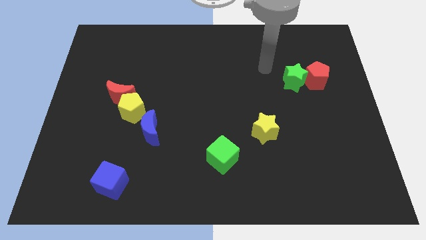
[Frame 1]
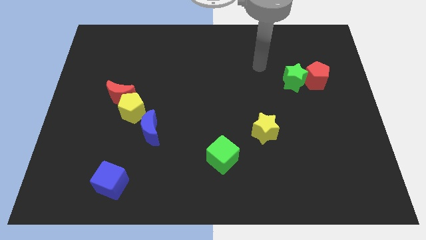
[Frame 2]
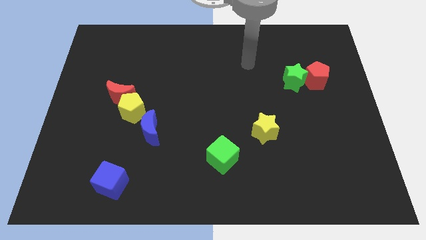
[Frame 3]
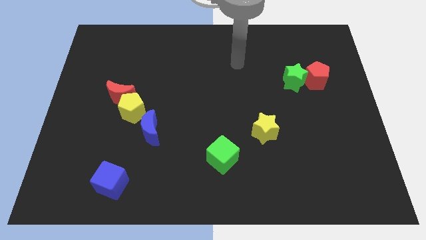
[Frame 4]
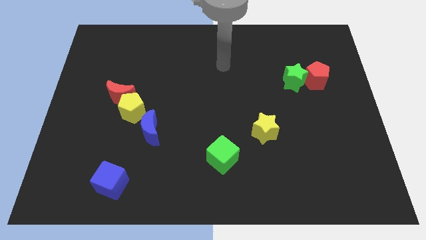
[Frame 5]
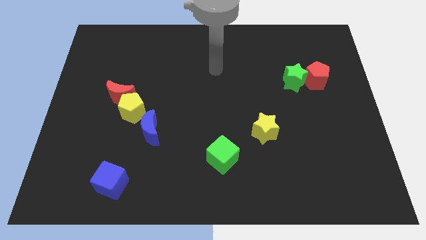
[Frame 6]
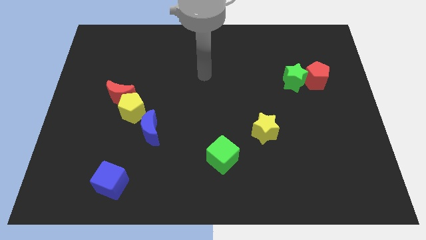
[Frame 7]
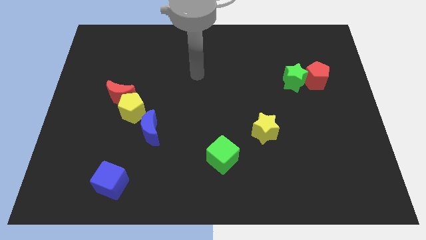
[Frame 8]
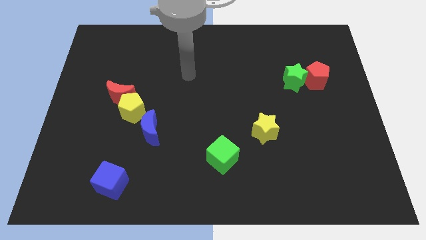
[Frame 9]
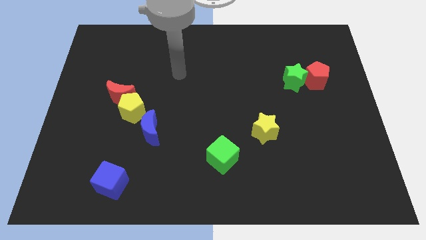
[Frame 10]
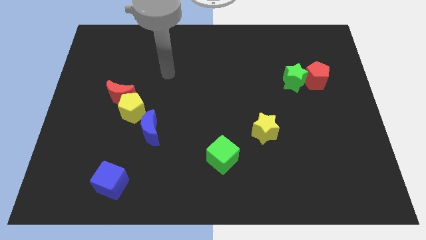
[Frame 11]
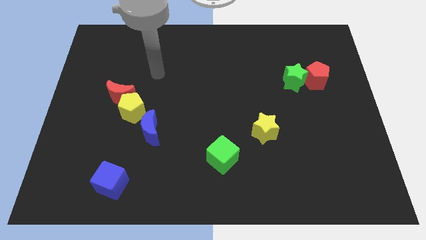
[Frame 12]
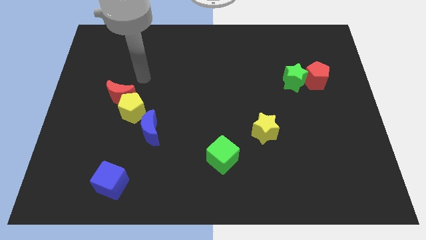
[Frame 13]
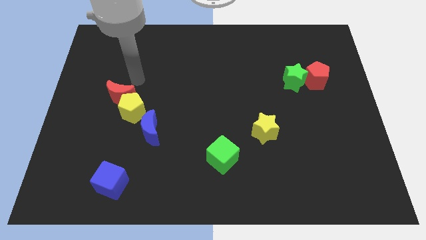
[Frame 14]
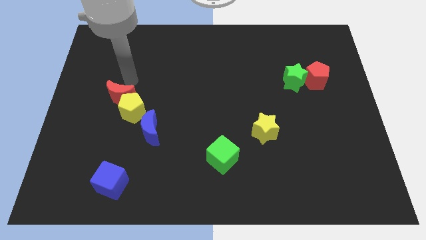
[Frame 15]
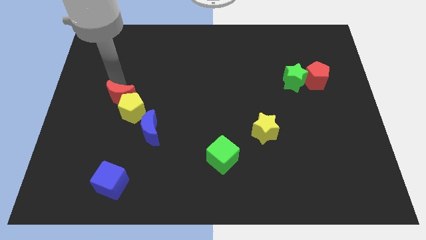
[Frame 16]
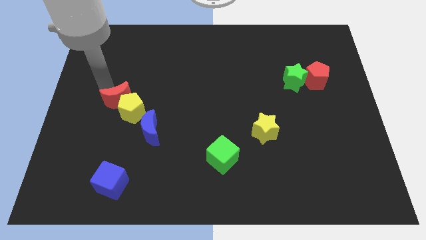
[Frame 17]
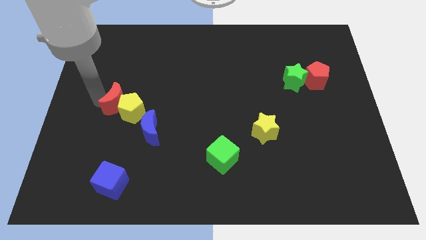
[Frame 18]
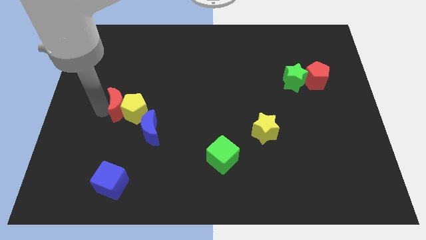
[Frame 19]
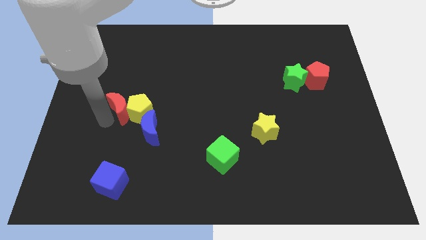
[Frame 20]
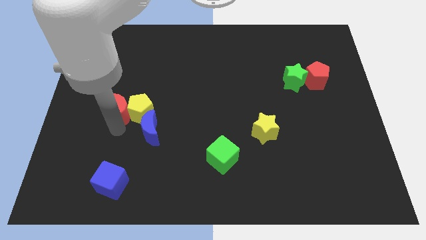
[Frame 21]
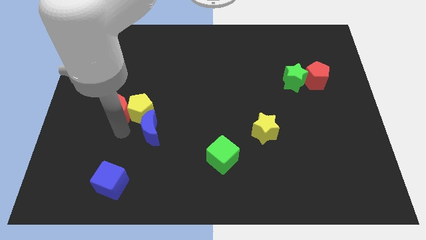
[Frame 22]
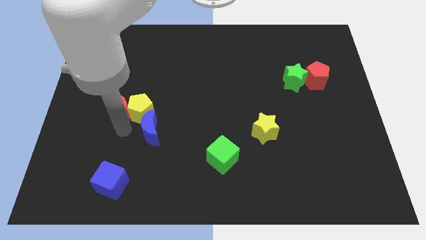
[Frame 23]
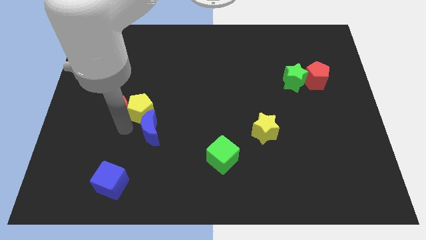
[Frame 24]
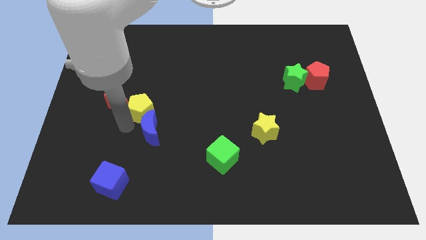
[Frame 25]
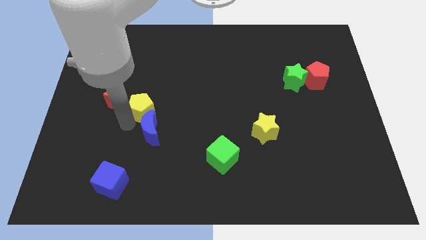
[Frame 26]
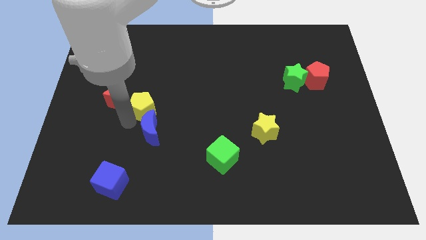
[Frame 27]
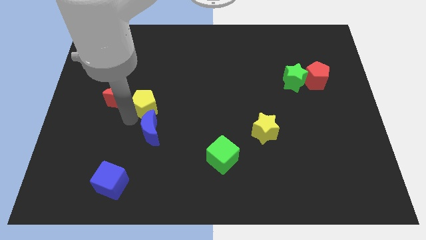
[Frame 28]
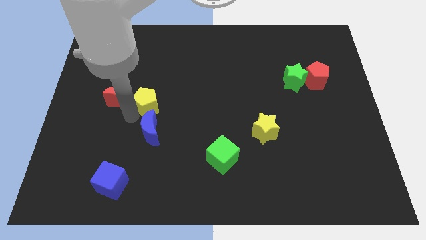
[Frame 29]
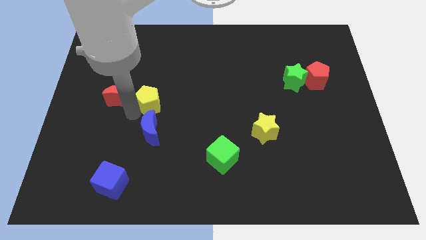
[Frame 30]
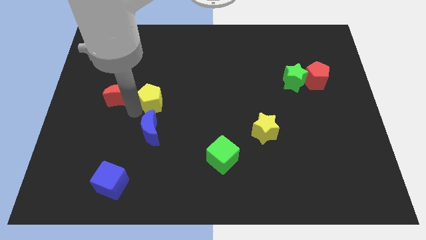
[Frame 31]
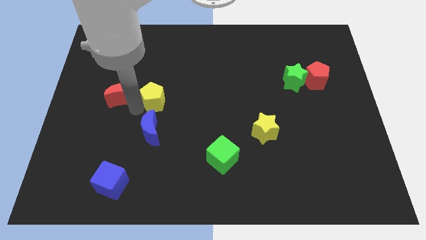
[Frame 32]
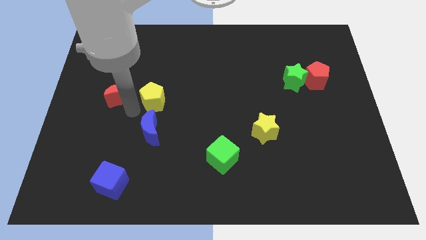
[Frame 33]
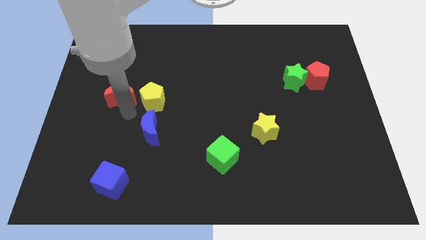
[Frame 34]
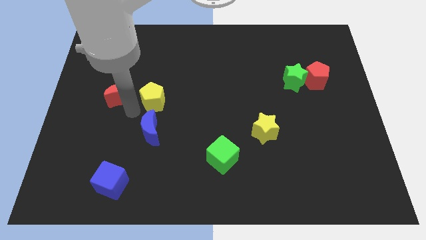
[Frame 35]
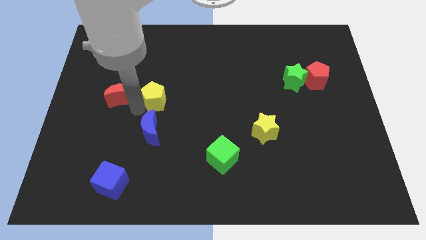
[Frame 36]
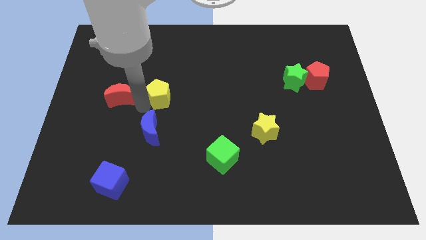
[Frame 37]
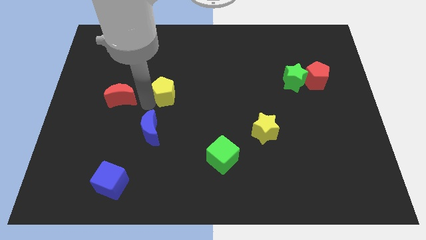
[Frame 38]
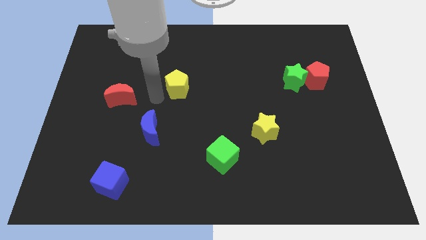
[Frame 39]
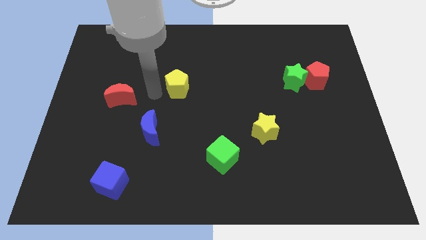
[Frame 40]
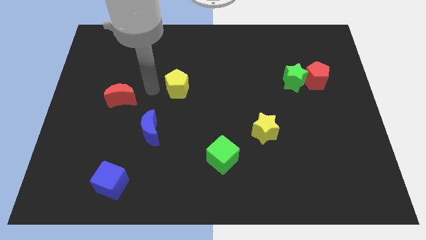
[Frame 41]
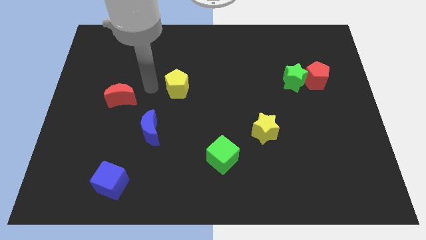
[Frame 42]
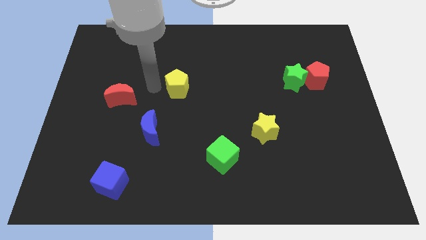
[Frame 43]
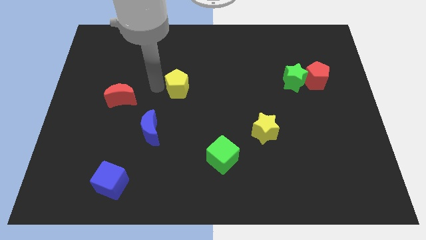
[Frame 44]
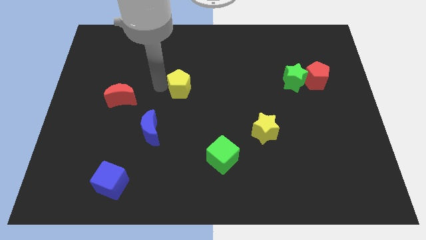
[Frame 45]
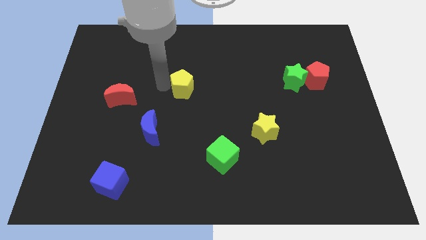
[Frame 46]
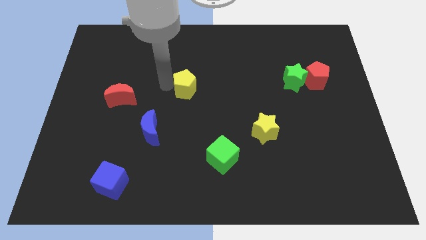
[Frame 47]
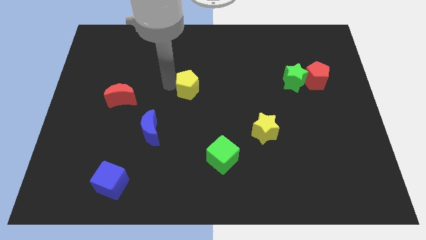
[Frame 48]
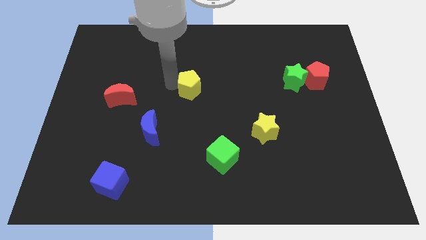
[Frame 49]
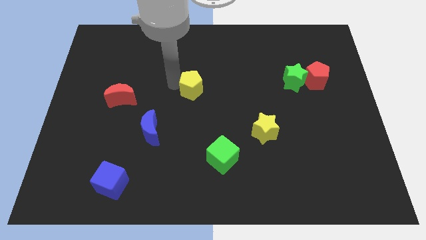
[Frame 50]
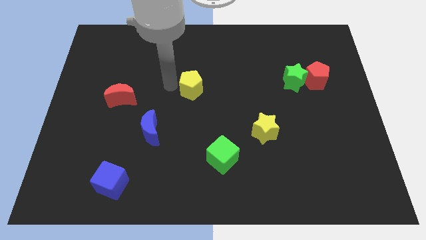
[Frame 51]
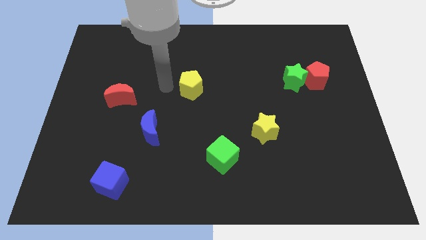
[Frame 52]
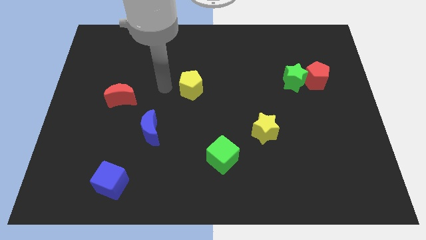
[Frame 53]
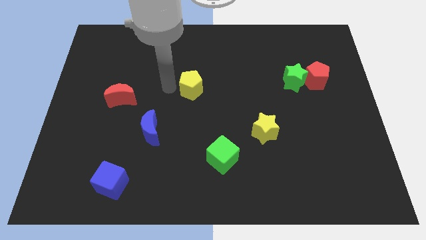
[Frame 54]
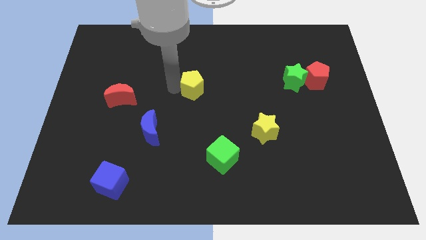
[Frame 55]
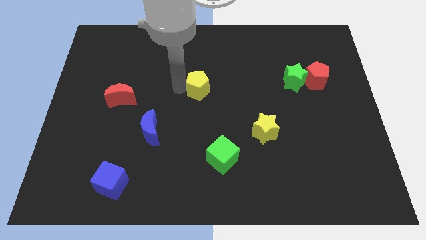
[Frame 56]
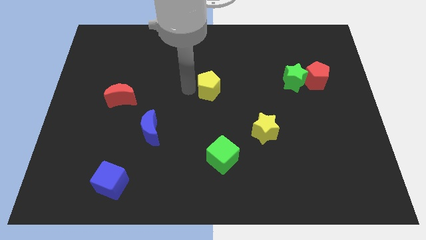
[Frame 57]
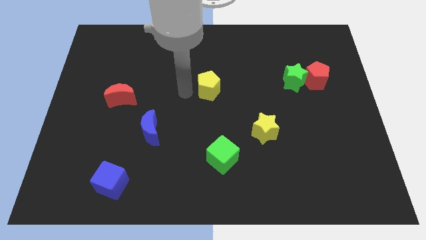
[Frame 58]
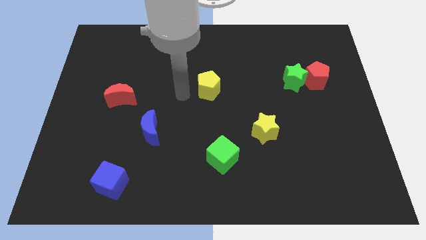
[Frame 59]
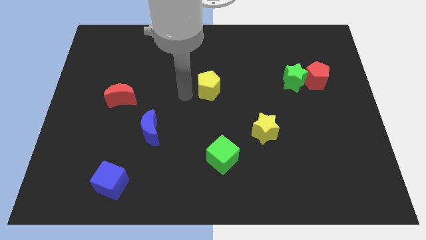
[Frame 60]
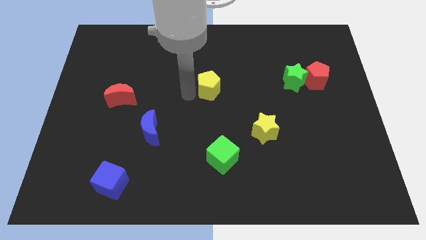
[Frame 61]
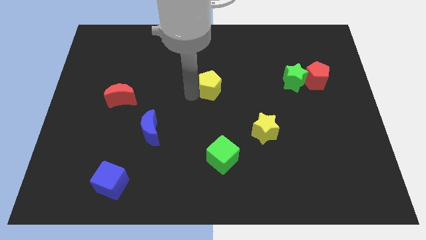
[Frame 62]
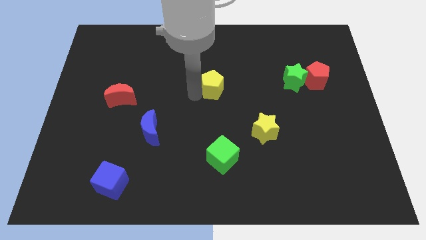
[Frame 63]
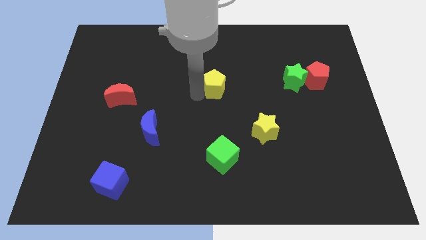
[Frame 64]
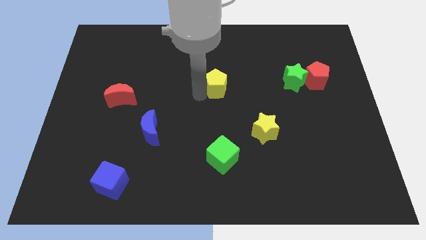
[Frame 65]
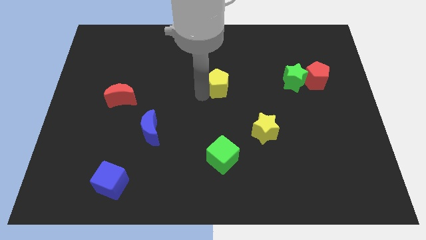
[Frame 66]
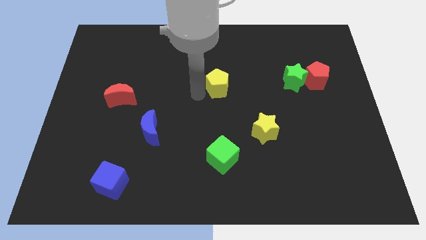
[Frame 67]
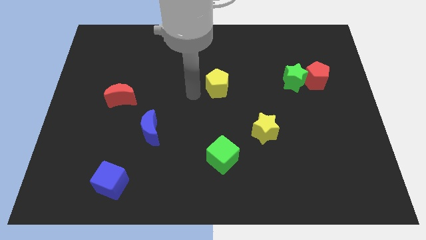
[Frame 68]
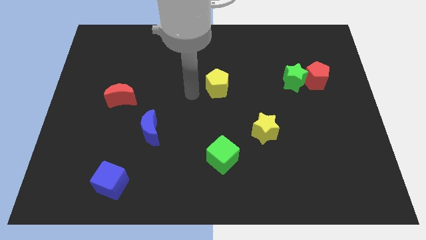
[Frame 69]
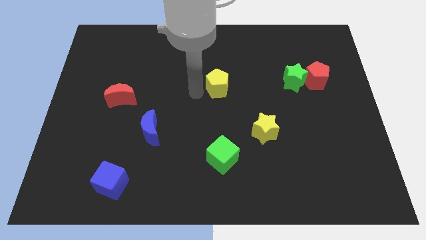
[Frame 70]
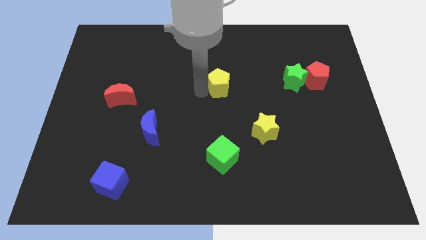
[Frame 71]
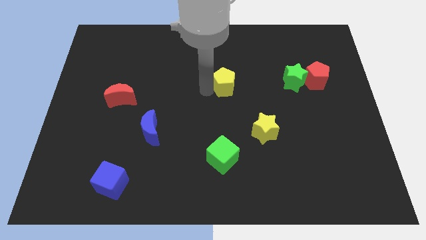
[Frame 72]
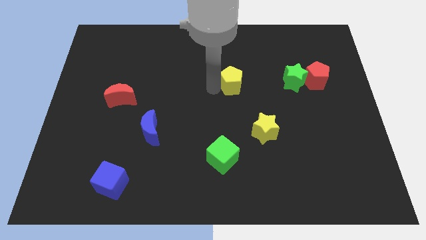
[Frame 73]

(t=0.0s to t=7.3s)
slide the yellow pentagon to the left side of the green star

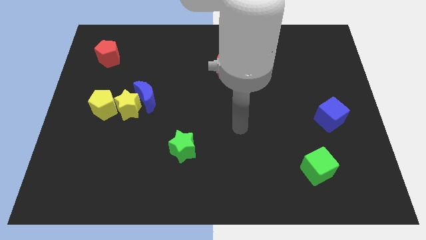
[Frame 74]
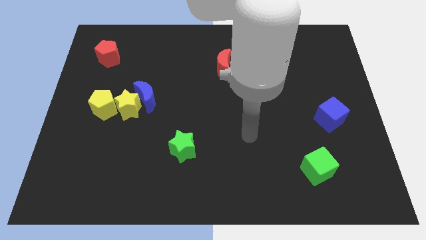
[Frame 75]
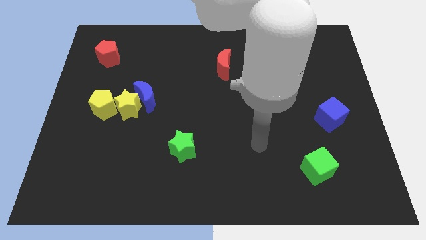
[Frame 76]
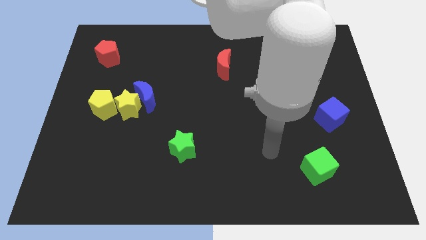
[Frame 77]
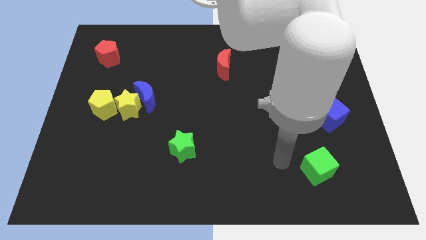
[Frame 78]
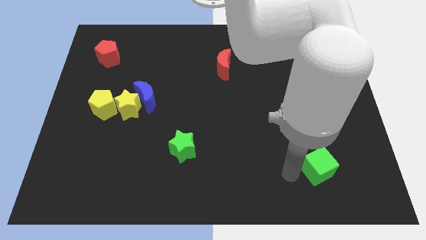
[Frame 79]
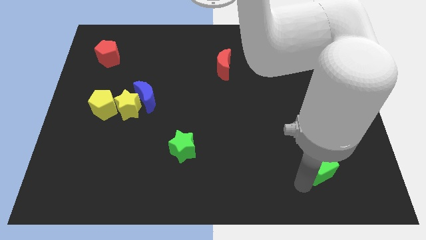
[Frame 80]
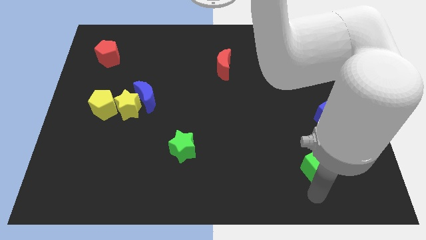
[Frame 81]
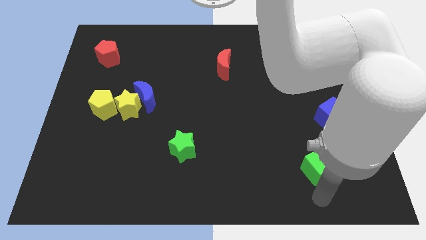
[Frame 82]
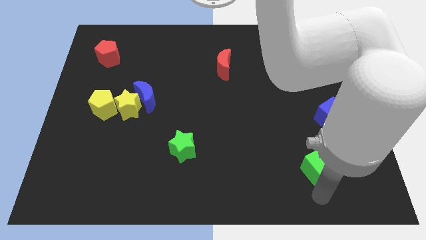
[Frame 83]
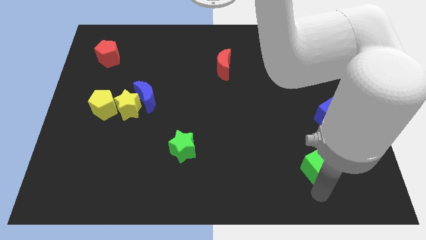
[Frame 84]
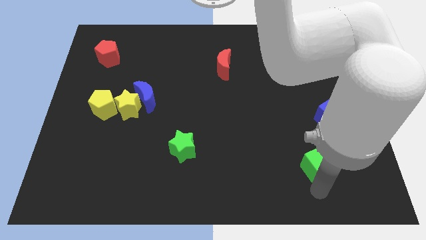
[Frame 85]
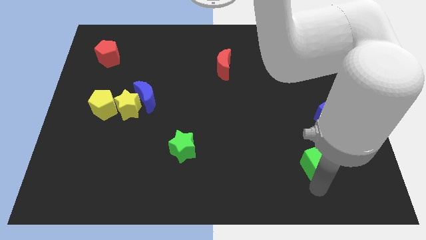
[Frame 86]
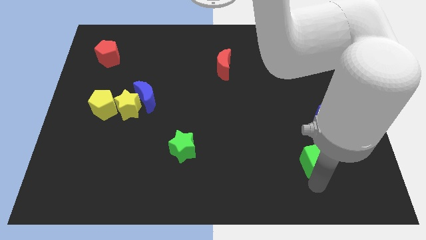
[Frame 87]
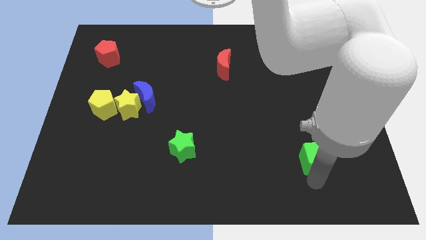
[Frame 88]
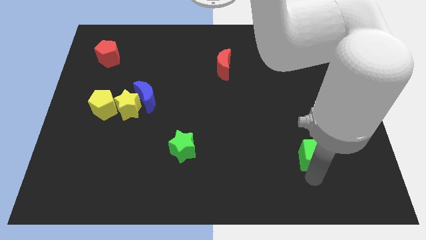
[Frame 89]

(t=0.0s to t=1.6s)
slide the green cube to the bottom left of the blue cube
